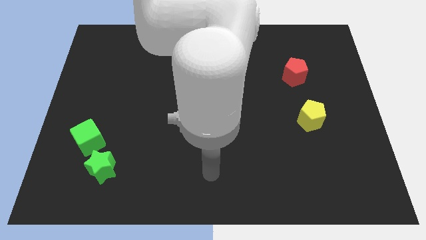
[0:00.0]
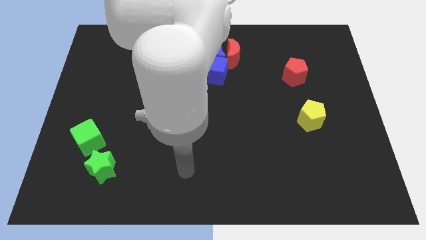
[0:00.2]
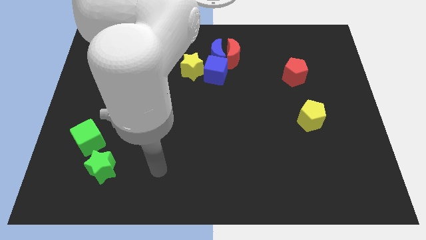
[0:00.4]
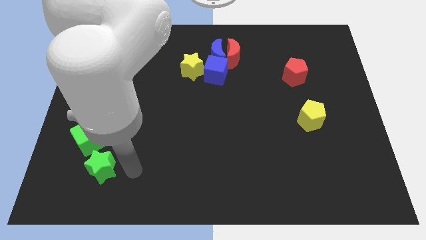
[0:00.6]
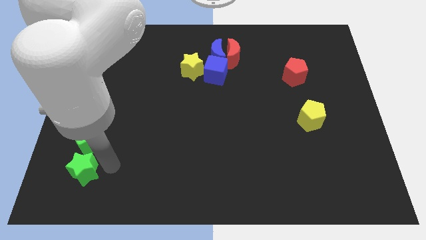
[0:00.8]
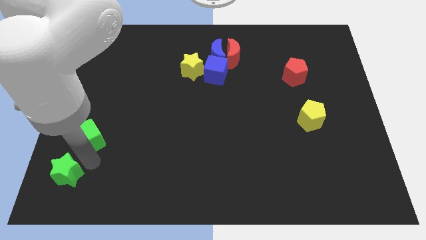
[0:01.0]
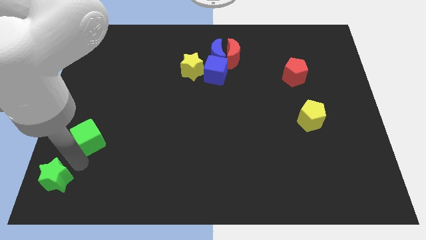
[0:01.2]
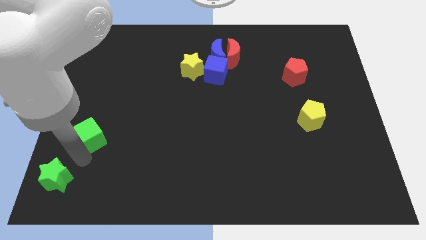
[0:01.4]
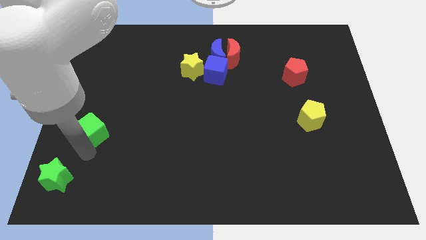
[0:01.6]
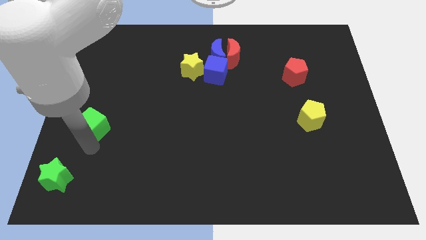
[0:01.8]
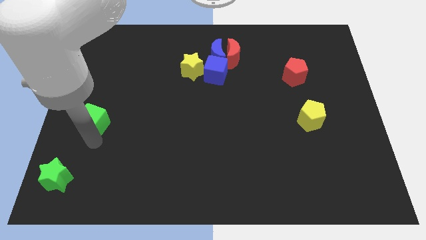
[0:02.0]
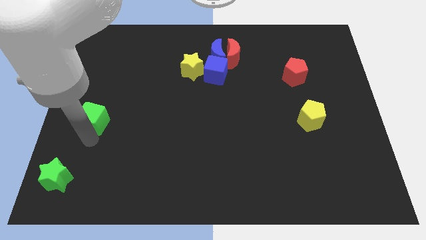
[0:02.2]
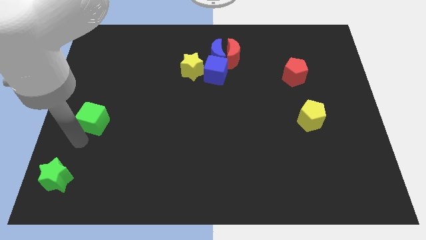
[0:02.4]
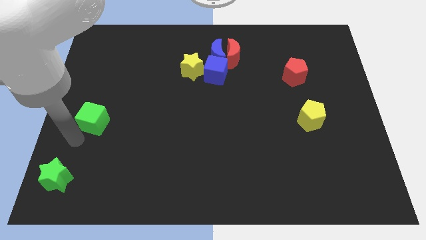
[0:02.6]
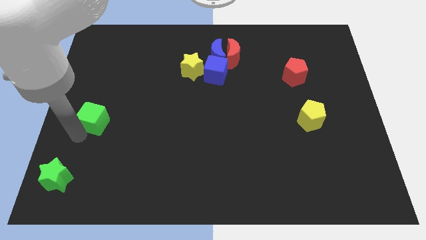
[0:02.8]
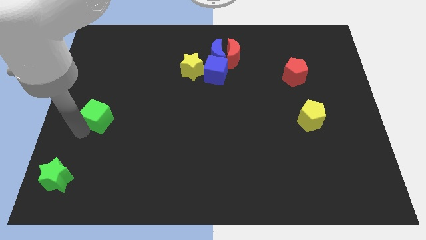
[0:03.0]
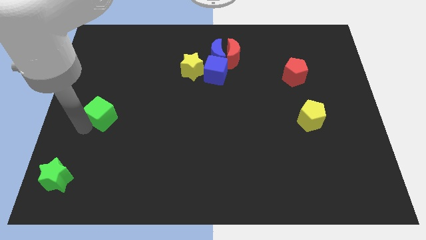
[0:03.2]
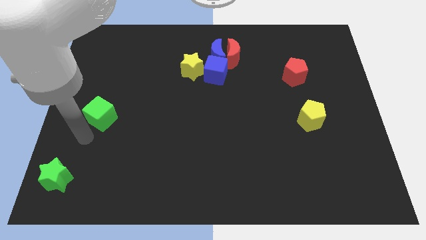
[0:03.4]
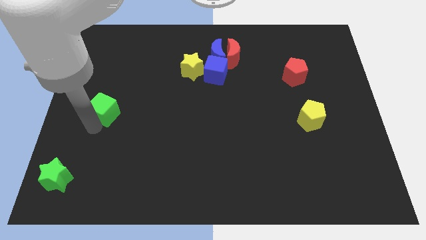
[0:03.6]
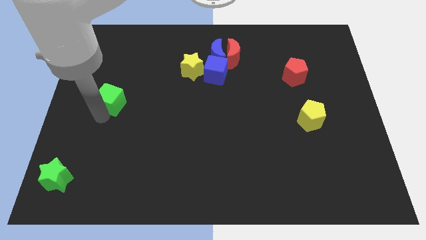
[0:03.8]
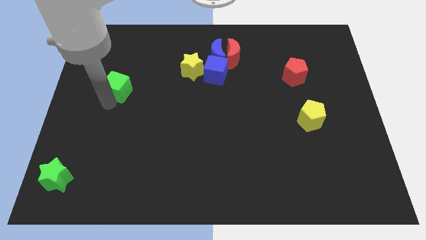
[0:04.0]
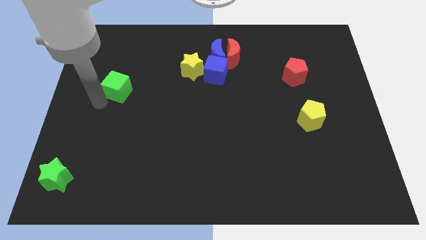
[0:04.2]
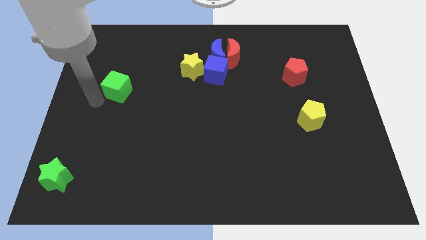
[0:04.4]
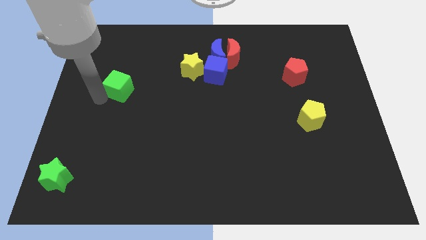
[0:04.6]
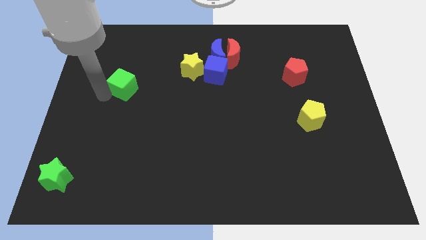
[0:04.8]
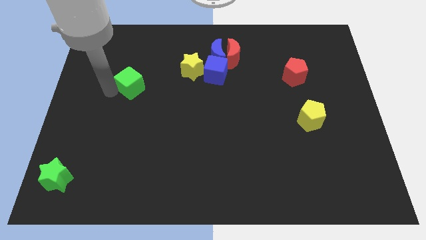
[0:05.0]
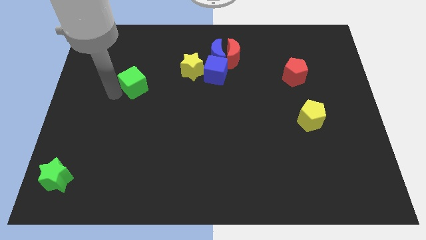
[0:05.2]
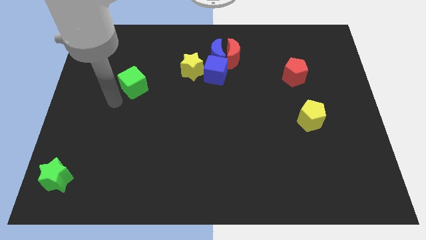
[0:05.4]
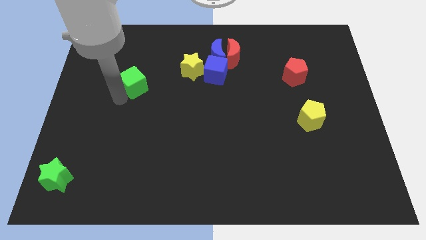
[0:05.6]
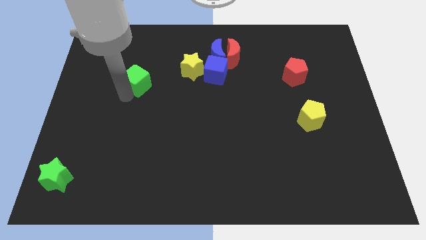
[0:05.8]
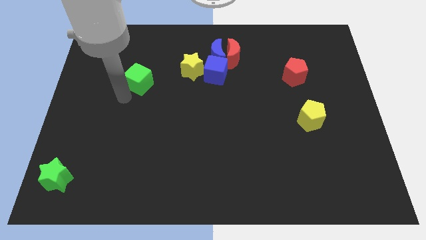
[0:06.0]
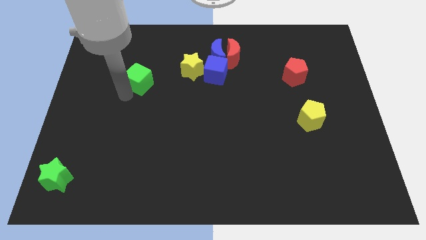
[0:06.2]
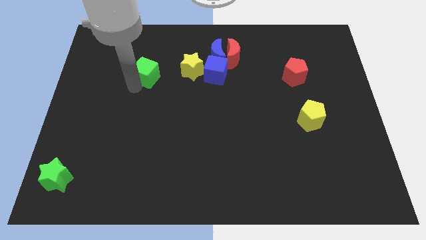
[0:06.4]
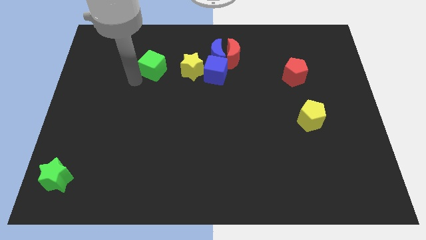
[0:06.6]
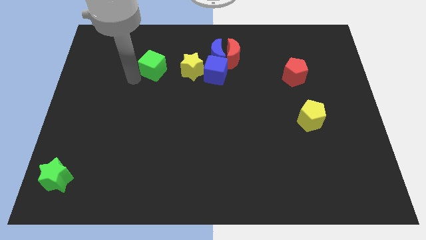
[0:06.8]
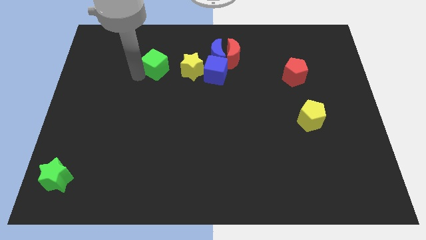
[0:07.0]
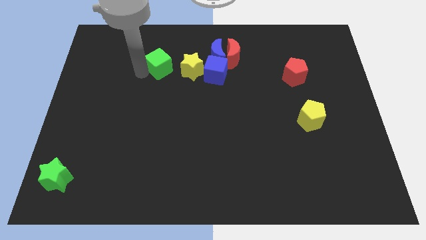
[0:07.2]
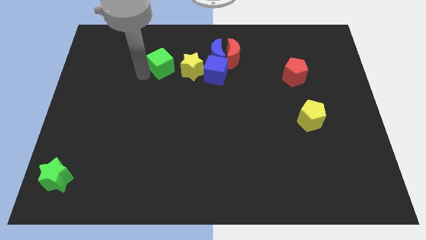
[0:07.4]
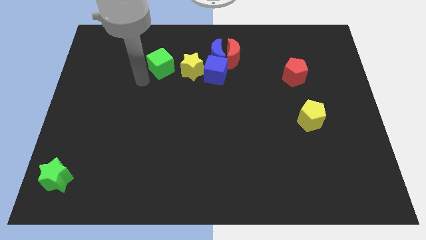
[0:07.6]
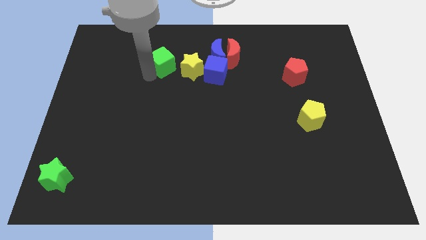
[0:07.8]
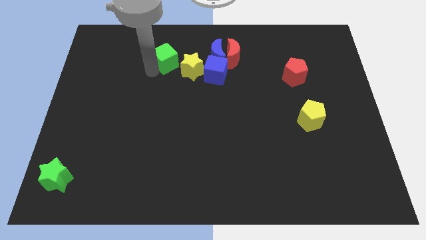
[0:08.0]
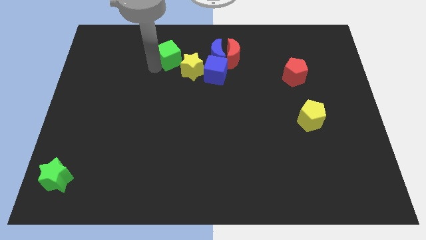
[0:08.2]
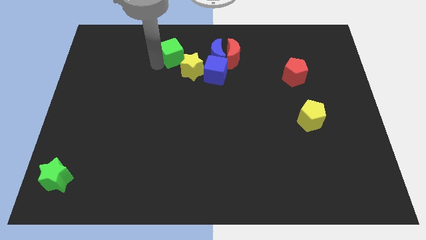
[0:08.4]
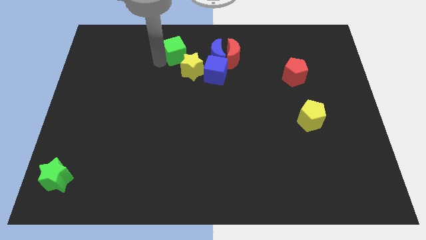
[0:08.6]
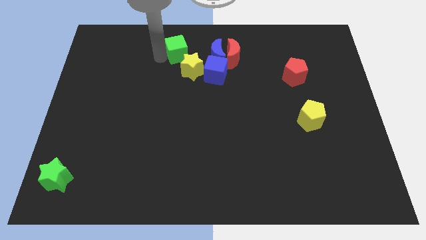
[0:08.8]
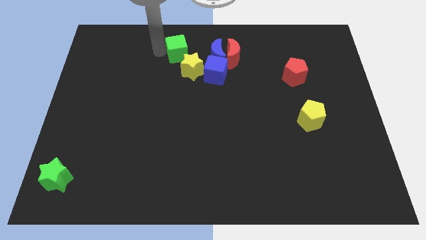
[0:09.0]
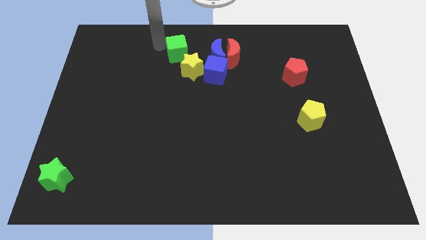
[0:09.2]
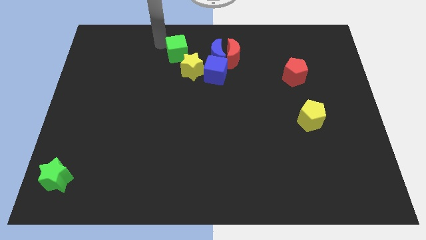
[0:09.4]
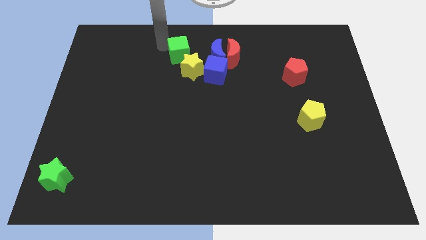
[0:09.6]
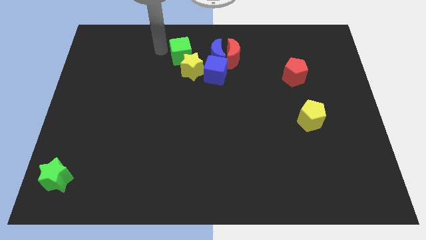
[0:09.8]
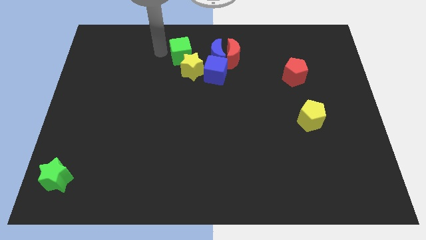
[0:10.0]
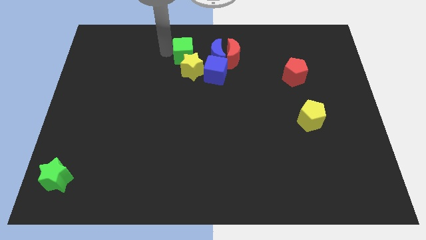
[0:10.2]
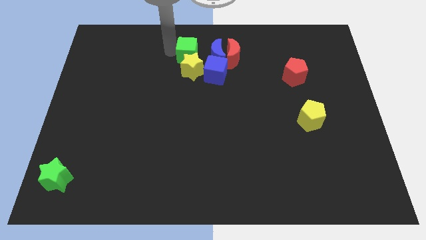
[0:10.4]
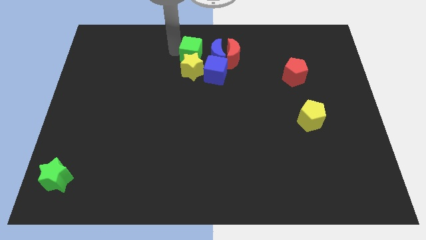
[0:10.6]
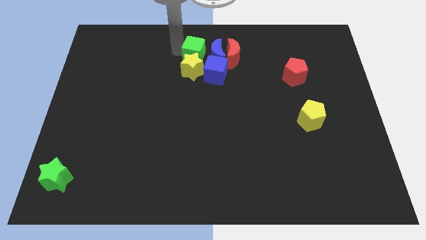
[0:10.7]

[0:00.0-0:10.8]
move the green cube towards the blue moon

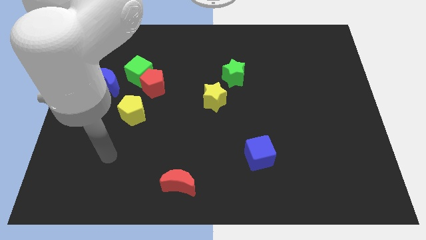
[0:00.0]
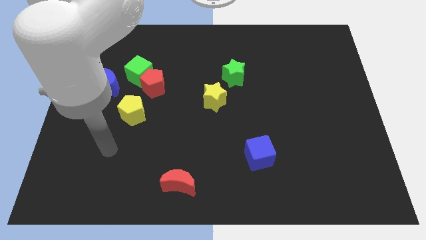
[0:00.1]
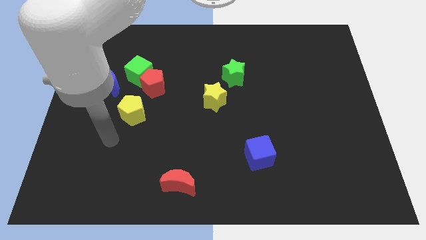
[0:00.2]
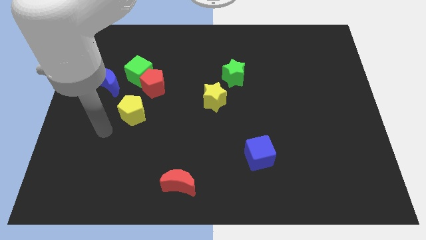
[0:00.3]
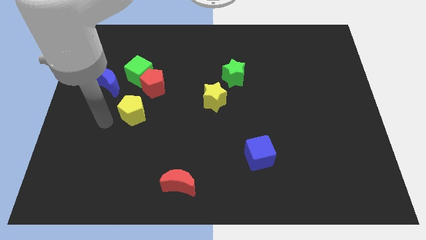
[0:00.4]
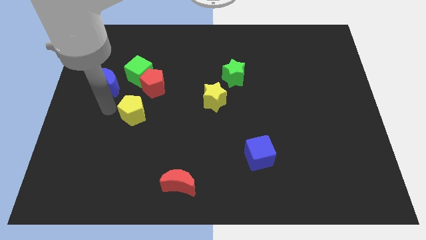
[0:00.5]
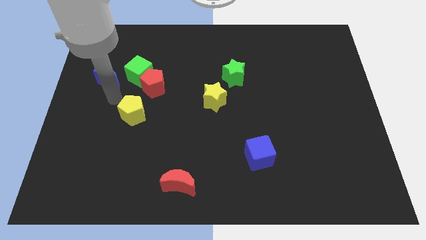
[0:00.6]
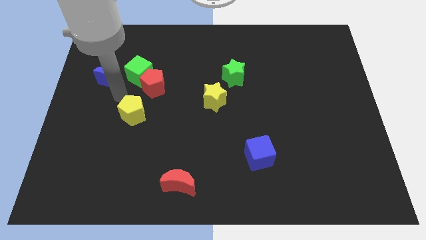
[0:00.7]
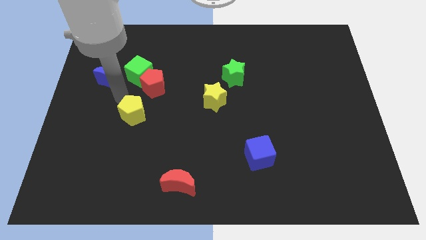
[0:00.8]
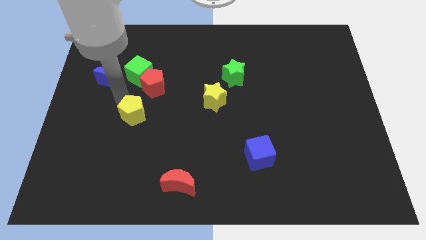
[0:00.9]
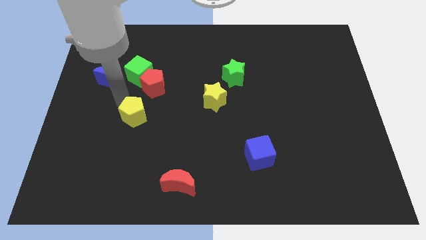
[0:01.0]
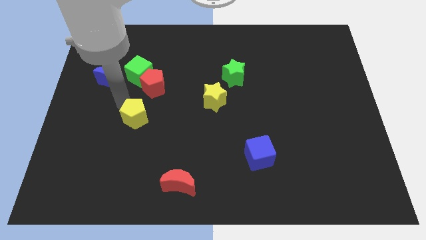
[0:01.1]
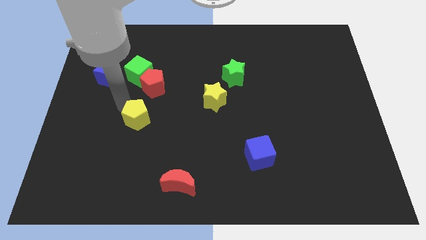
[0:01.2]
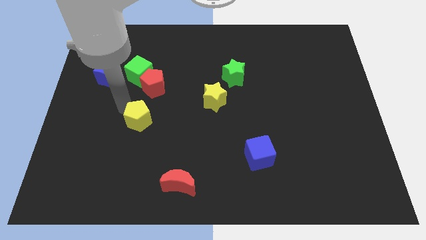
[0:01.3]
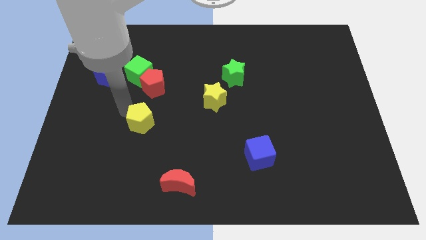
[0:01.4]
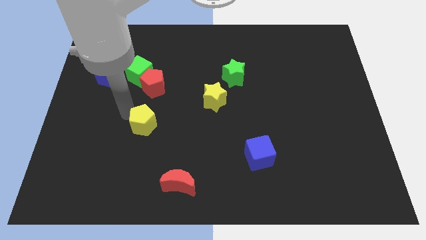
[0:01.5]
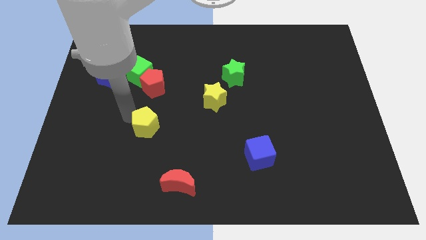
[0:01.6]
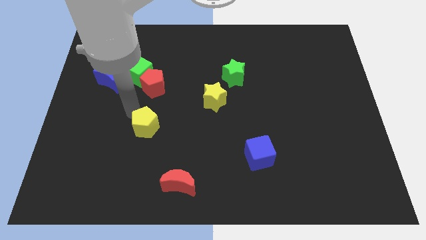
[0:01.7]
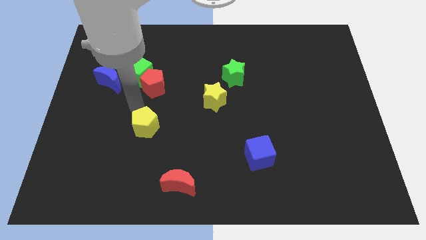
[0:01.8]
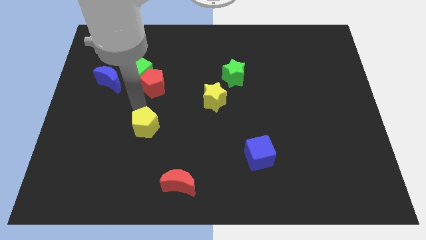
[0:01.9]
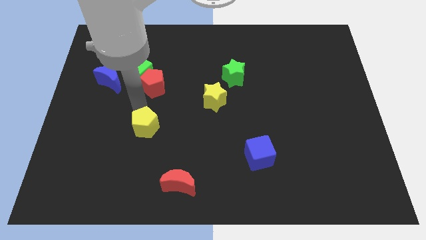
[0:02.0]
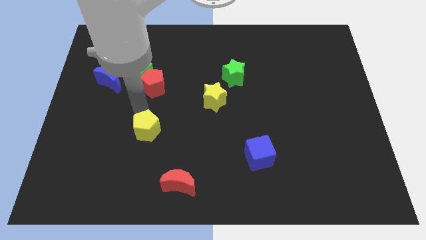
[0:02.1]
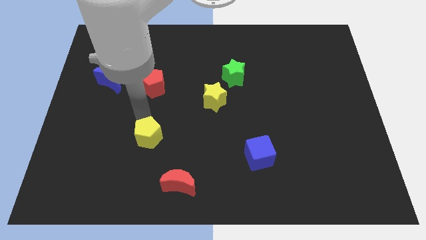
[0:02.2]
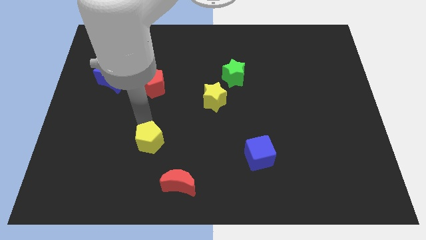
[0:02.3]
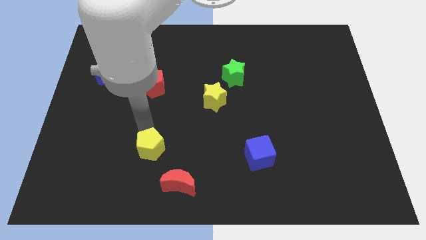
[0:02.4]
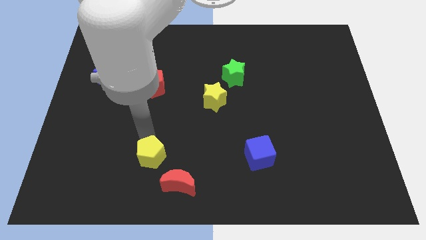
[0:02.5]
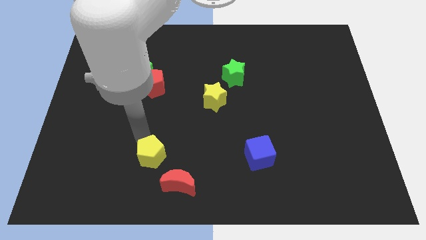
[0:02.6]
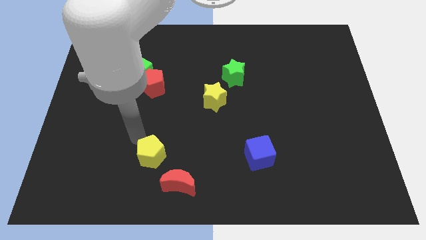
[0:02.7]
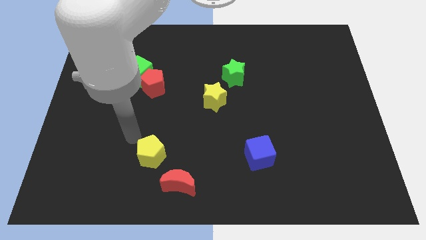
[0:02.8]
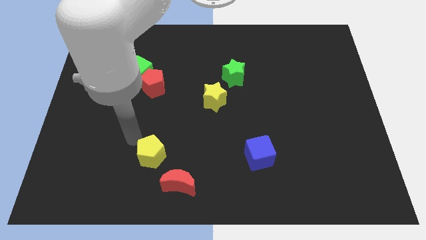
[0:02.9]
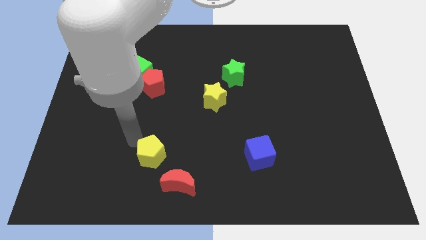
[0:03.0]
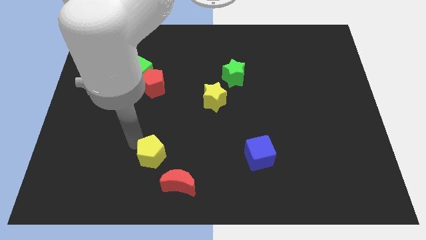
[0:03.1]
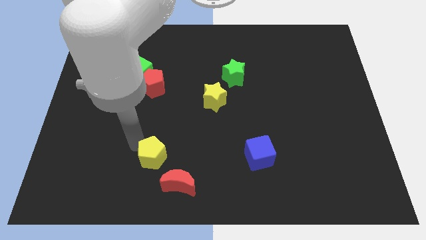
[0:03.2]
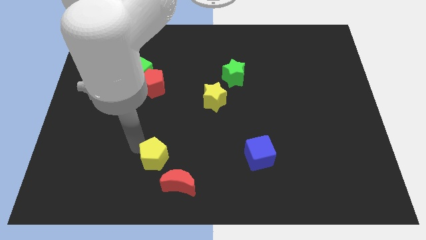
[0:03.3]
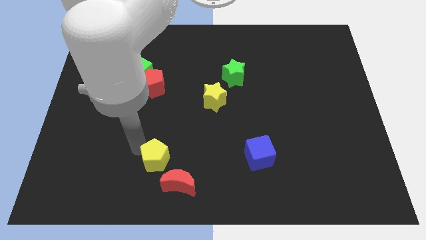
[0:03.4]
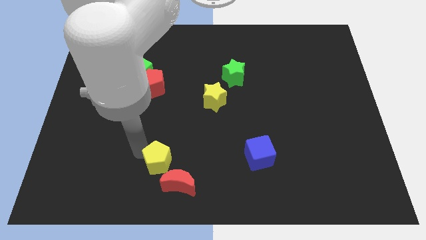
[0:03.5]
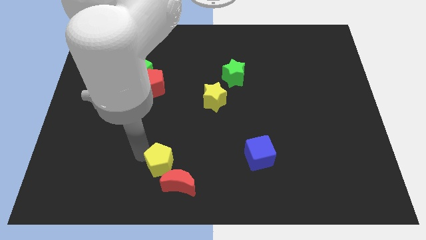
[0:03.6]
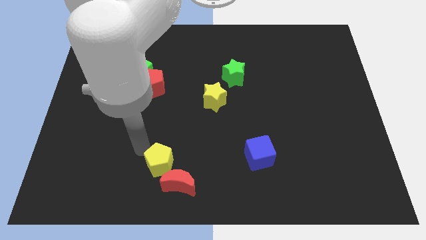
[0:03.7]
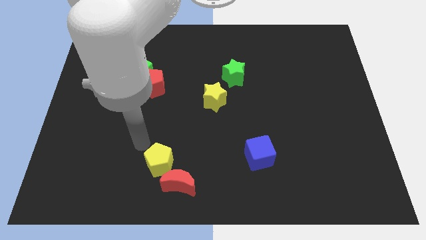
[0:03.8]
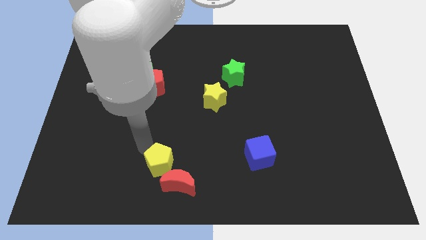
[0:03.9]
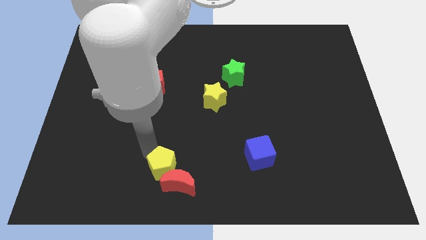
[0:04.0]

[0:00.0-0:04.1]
put the yellow pentagon towards the red moon
